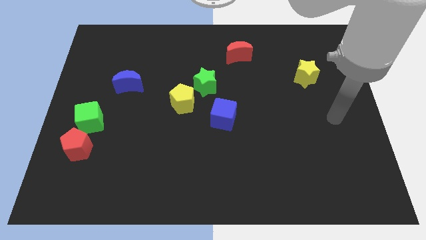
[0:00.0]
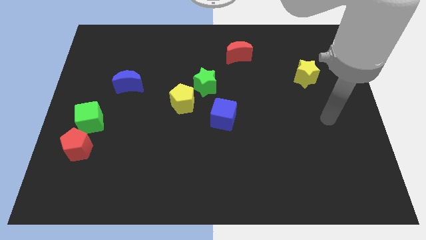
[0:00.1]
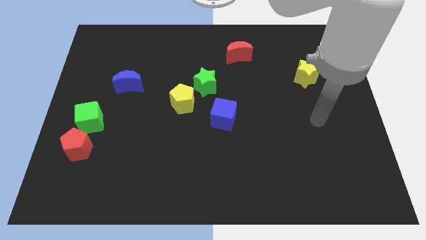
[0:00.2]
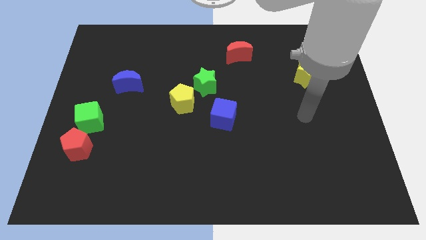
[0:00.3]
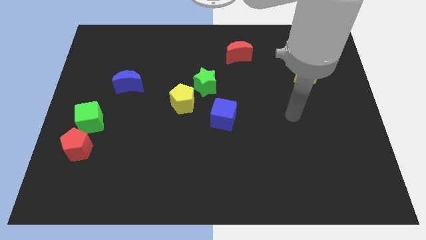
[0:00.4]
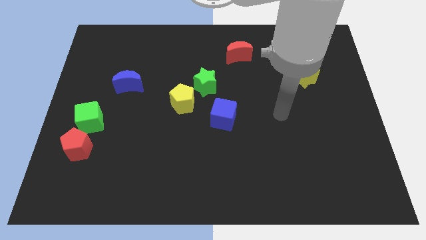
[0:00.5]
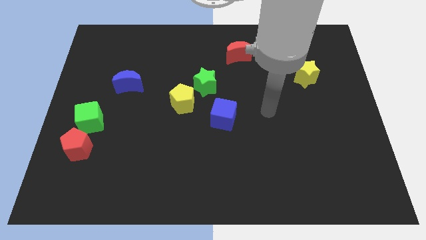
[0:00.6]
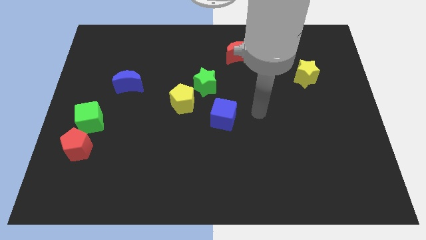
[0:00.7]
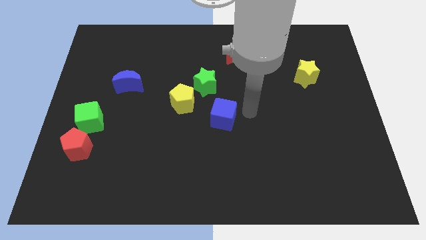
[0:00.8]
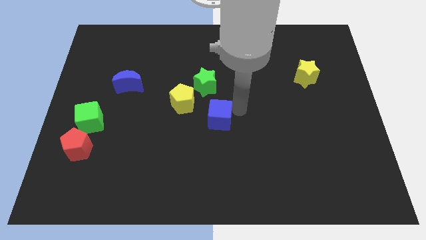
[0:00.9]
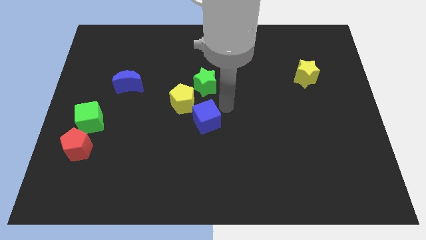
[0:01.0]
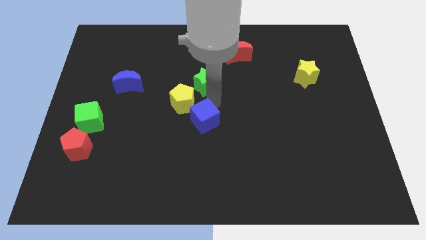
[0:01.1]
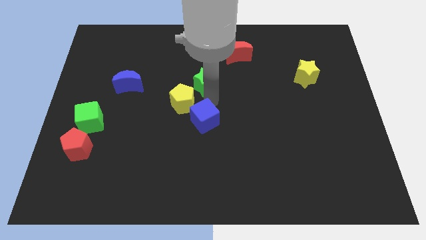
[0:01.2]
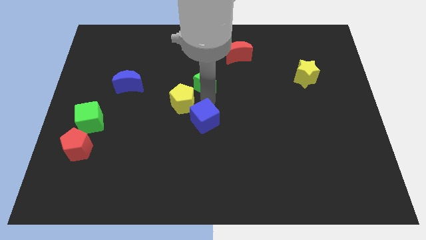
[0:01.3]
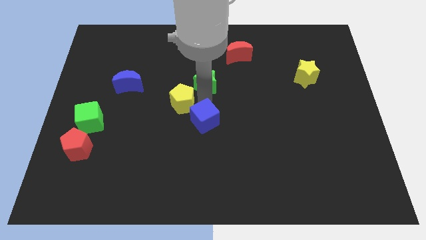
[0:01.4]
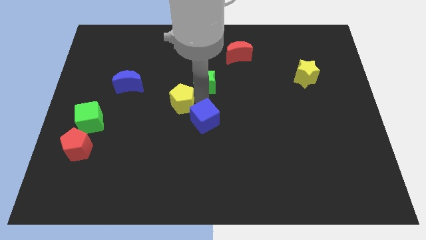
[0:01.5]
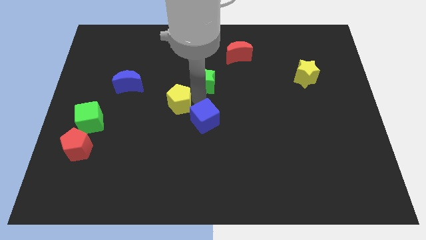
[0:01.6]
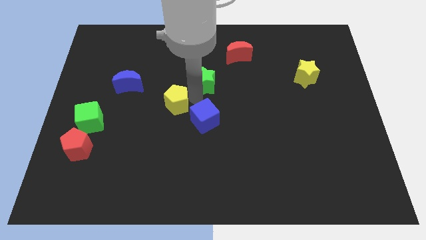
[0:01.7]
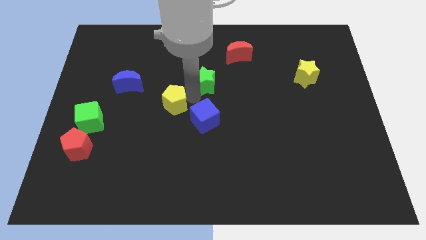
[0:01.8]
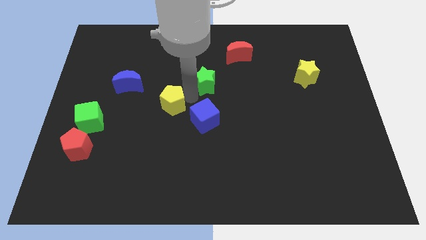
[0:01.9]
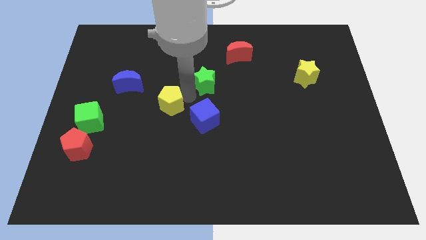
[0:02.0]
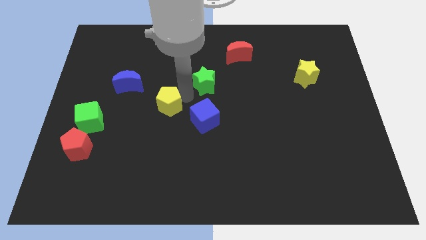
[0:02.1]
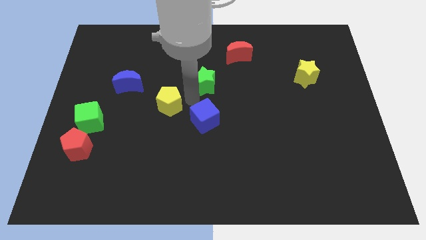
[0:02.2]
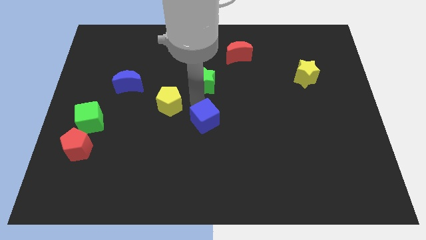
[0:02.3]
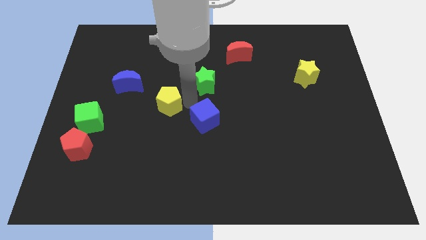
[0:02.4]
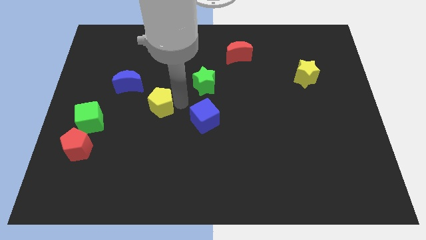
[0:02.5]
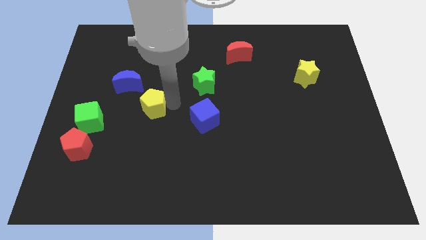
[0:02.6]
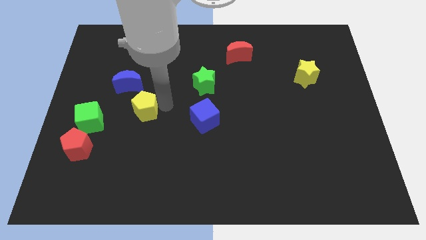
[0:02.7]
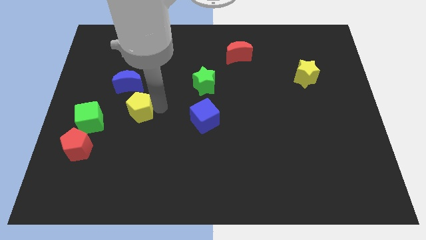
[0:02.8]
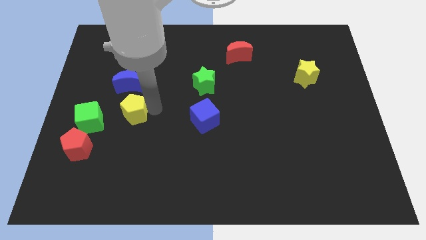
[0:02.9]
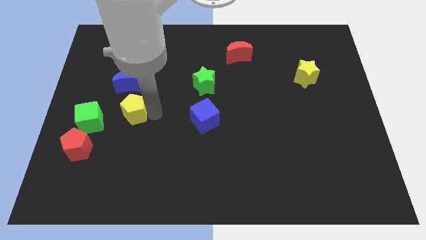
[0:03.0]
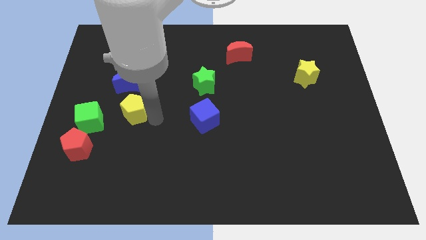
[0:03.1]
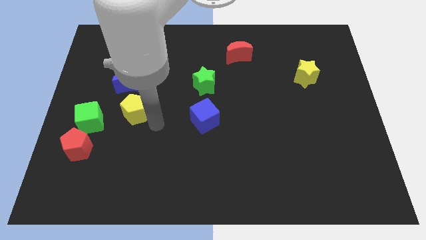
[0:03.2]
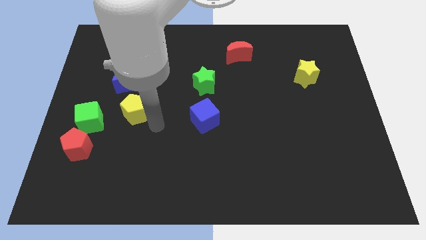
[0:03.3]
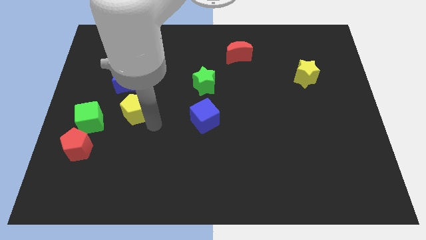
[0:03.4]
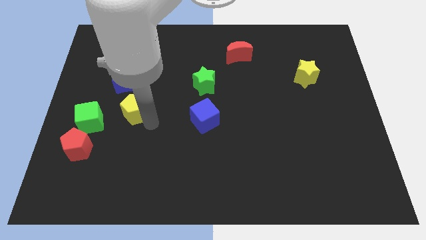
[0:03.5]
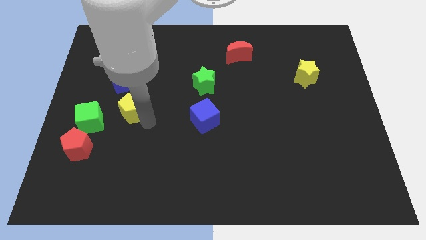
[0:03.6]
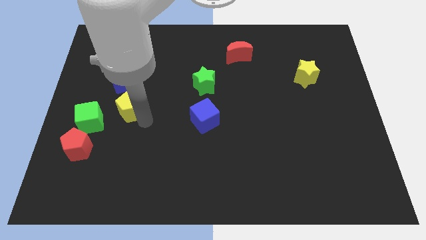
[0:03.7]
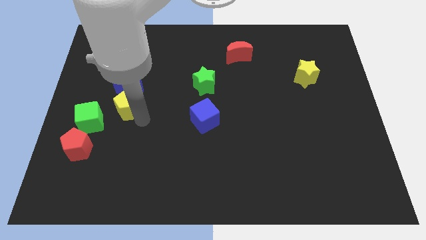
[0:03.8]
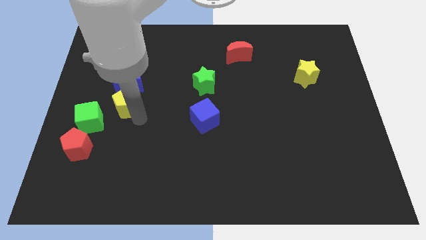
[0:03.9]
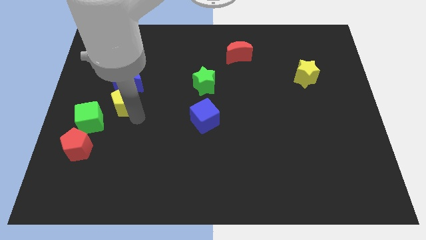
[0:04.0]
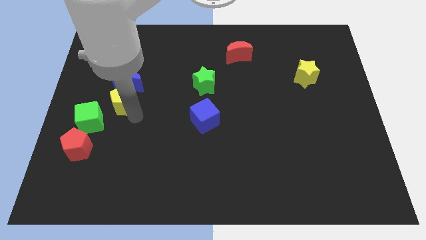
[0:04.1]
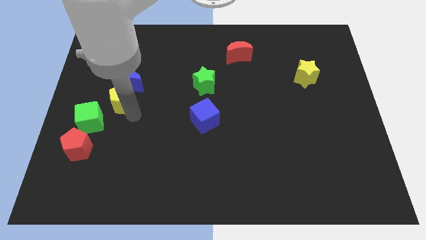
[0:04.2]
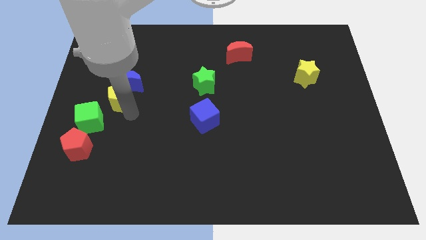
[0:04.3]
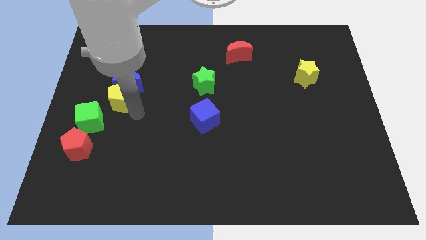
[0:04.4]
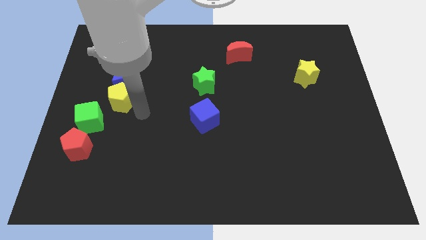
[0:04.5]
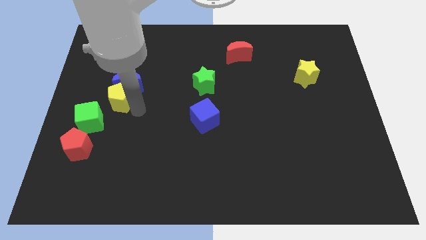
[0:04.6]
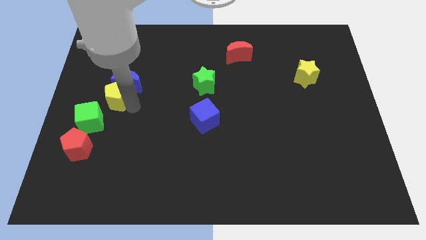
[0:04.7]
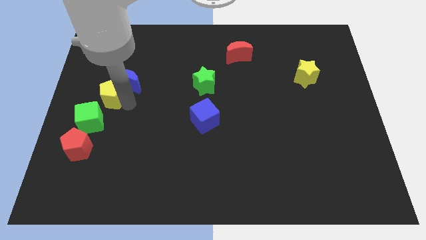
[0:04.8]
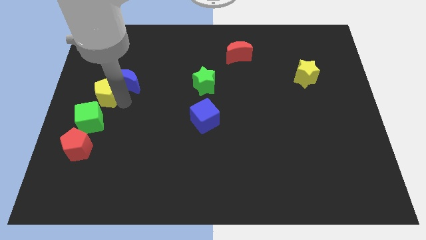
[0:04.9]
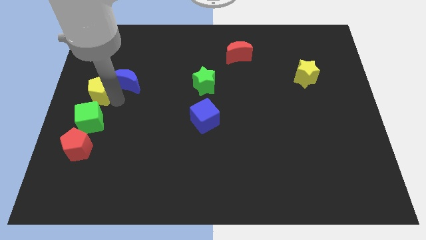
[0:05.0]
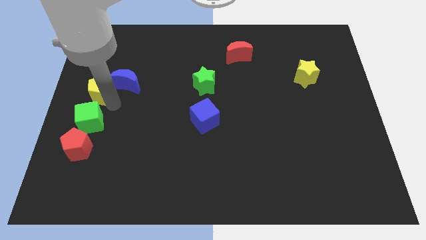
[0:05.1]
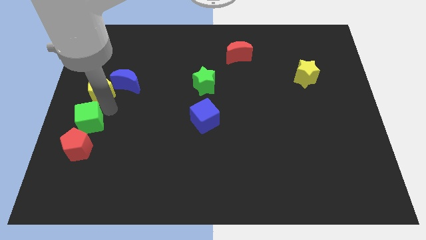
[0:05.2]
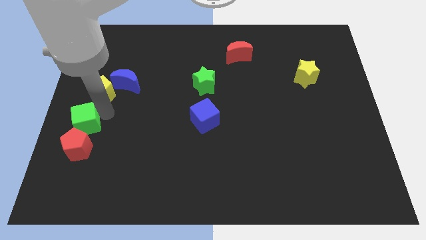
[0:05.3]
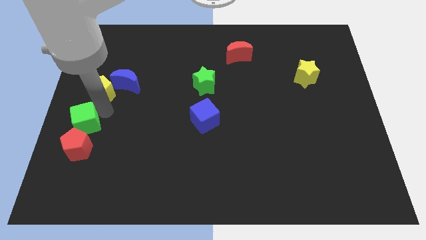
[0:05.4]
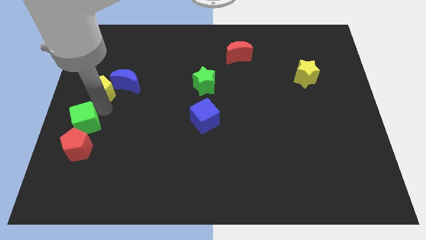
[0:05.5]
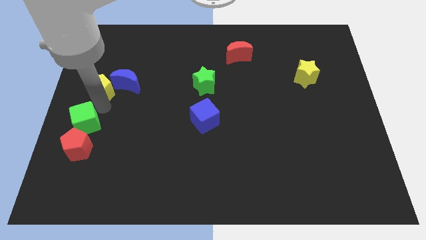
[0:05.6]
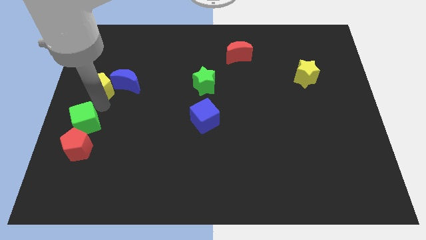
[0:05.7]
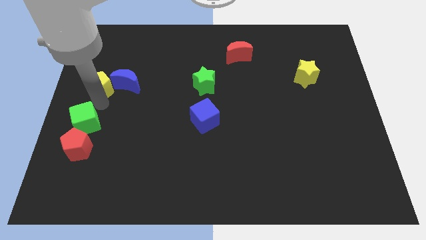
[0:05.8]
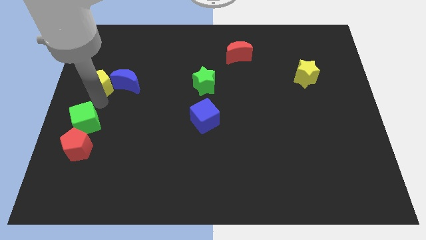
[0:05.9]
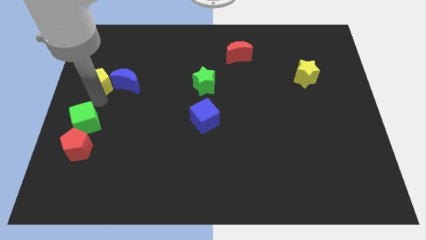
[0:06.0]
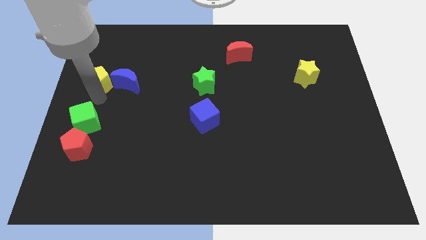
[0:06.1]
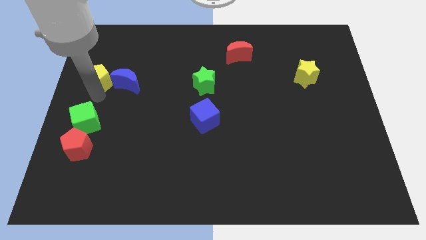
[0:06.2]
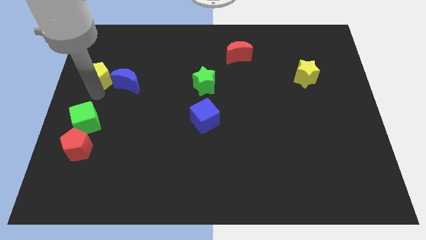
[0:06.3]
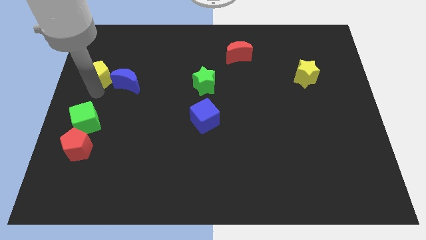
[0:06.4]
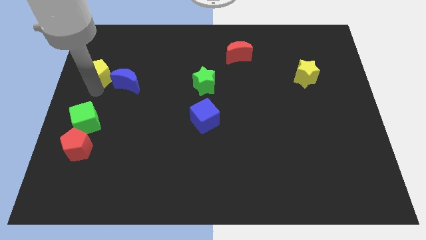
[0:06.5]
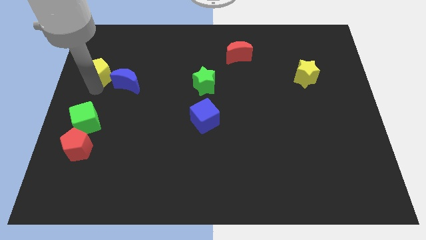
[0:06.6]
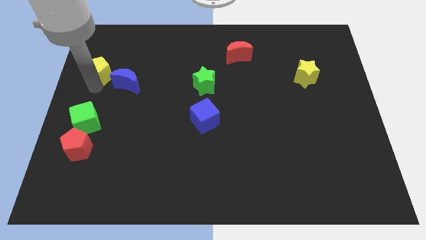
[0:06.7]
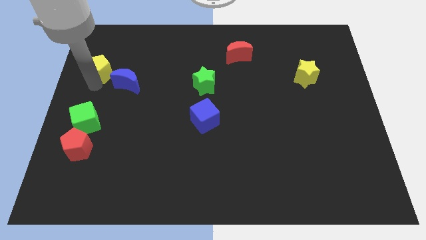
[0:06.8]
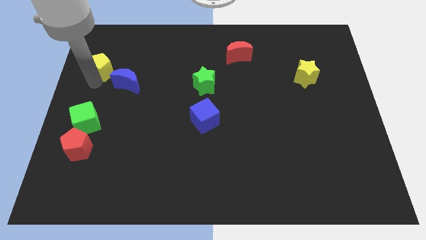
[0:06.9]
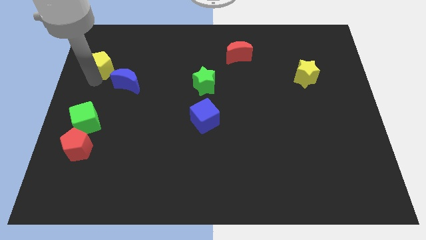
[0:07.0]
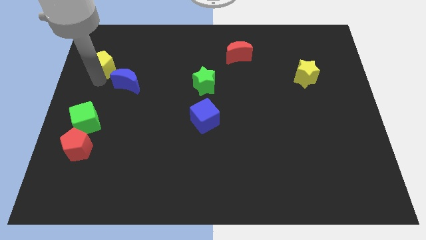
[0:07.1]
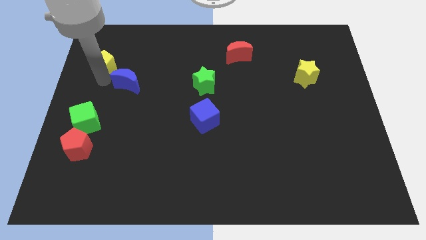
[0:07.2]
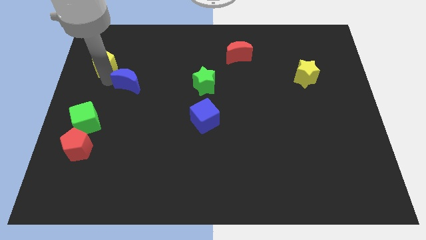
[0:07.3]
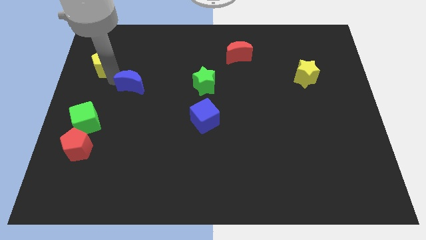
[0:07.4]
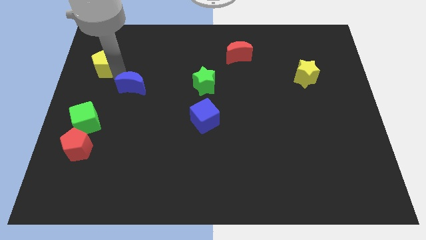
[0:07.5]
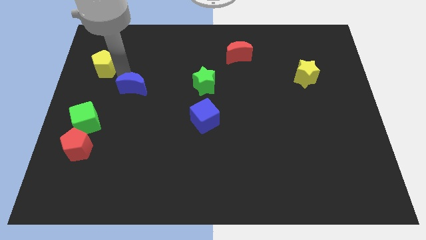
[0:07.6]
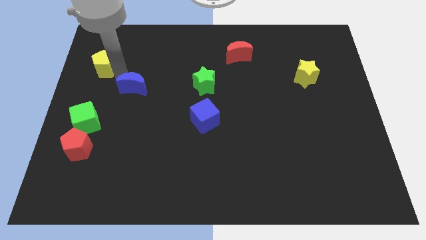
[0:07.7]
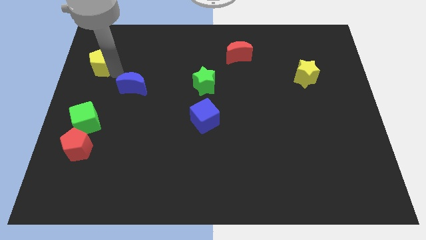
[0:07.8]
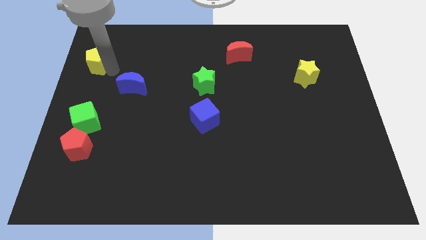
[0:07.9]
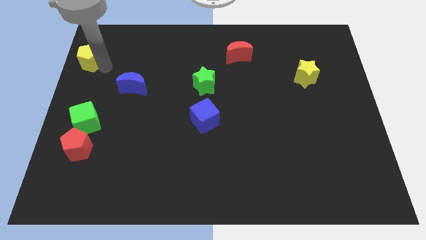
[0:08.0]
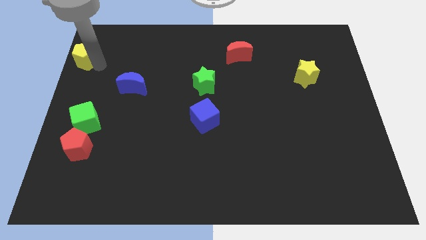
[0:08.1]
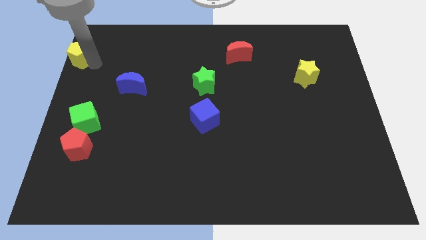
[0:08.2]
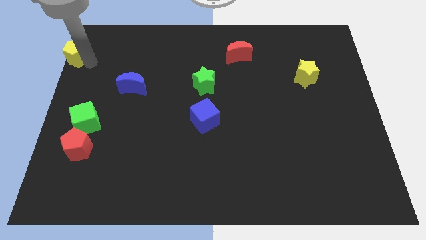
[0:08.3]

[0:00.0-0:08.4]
push the yellow pentagon to the top left corner
